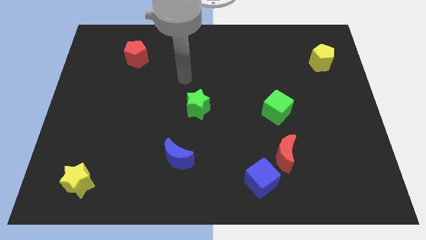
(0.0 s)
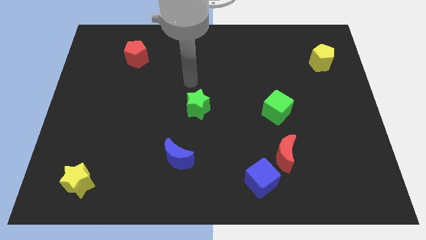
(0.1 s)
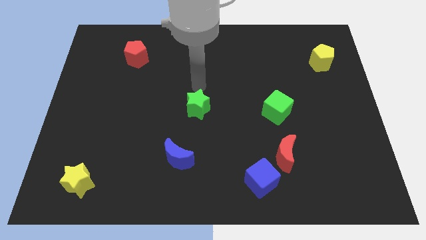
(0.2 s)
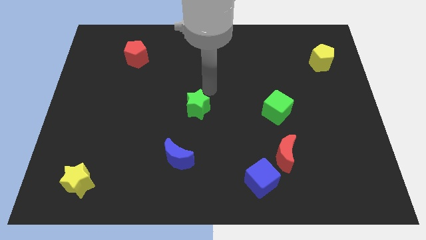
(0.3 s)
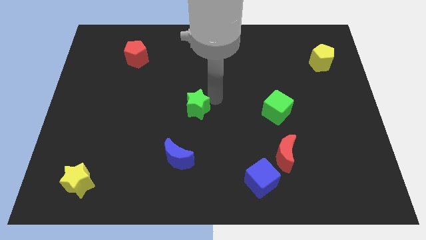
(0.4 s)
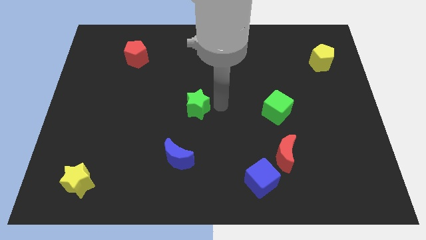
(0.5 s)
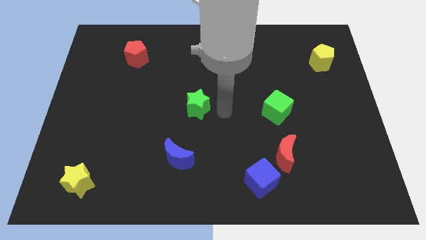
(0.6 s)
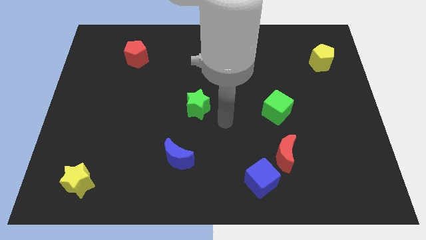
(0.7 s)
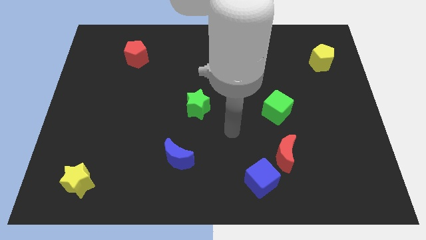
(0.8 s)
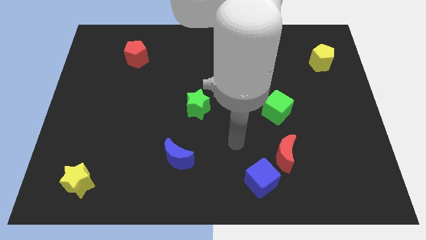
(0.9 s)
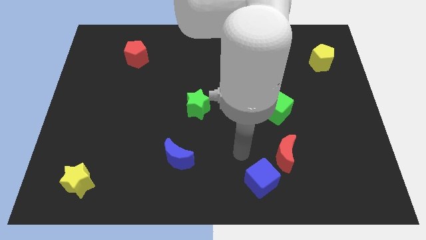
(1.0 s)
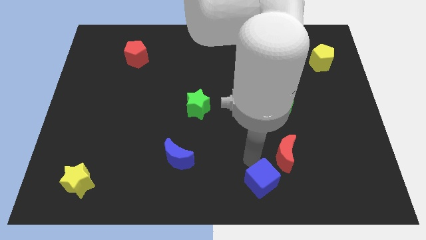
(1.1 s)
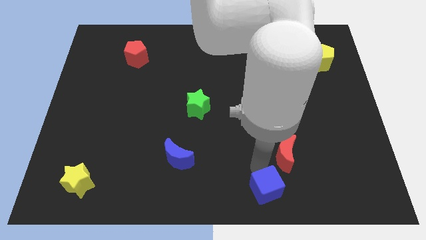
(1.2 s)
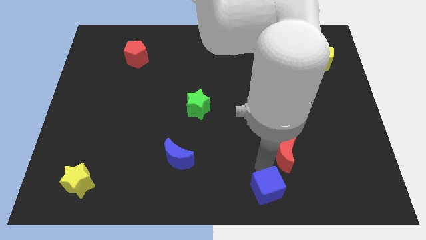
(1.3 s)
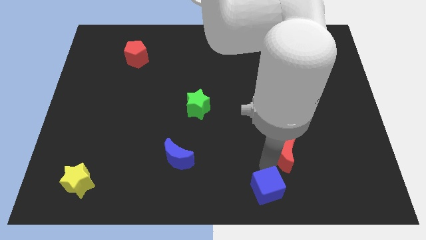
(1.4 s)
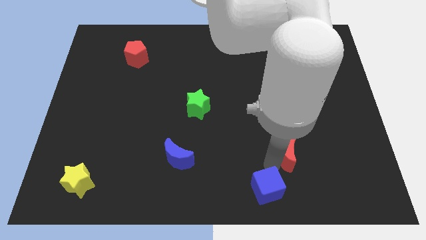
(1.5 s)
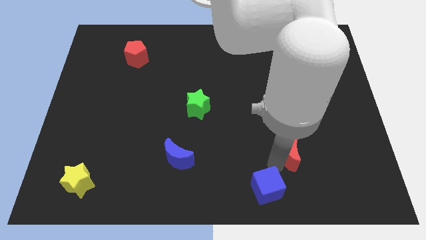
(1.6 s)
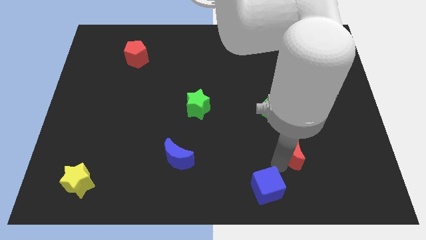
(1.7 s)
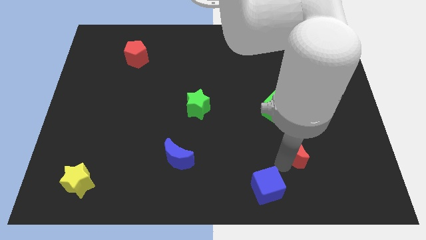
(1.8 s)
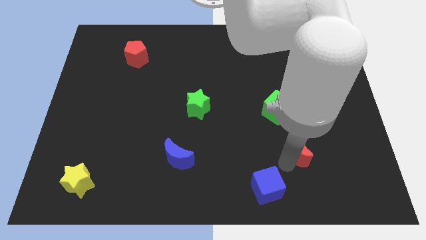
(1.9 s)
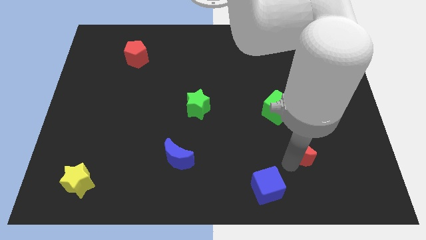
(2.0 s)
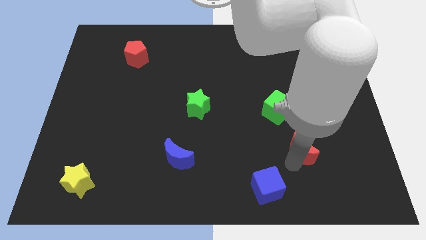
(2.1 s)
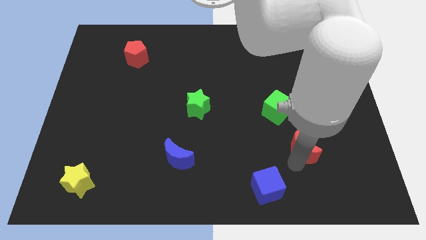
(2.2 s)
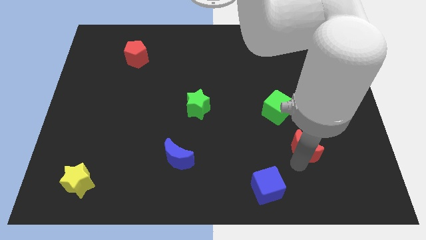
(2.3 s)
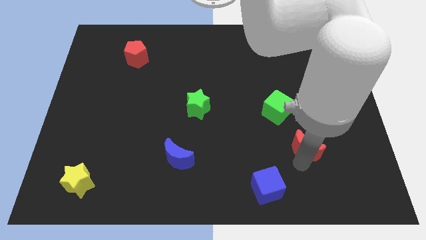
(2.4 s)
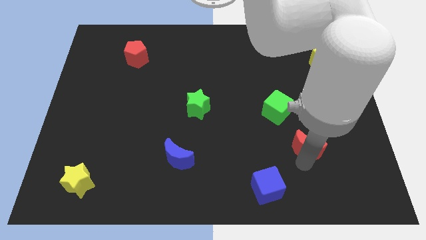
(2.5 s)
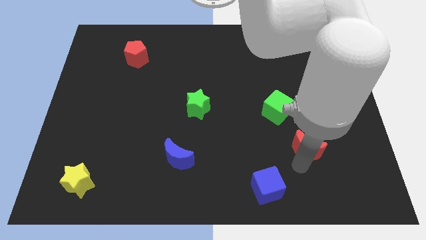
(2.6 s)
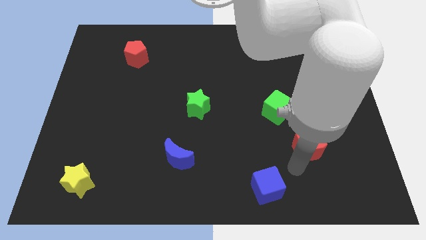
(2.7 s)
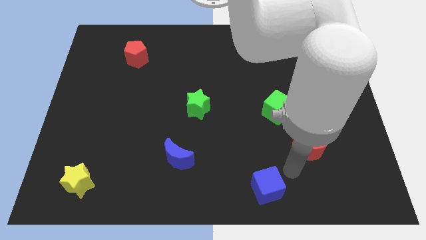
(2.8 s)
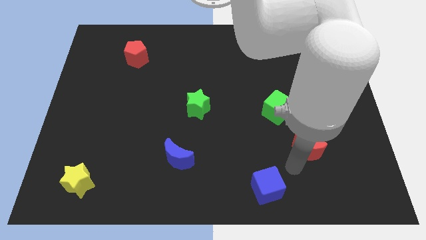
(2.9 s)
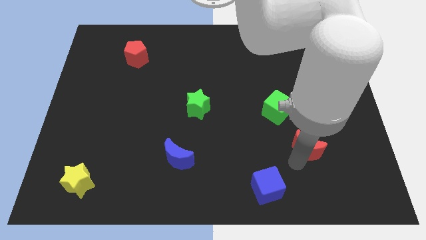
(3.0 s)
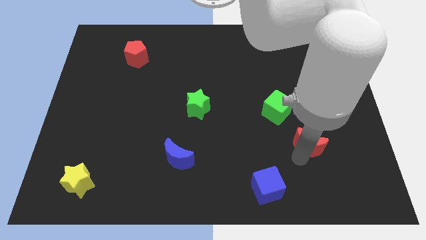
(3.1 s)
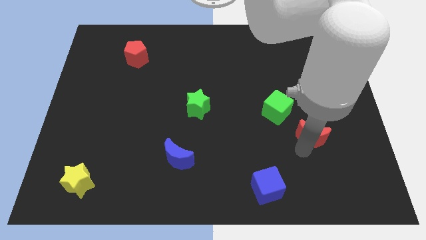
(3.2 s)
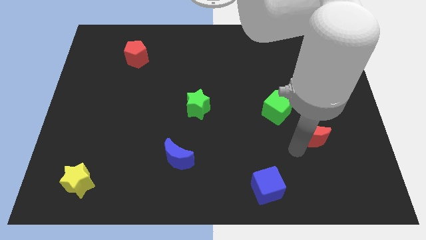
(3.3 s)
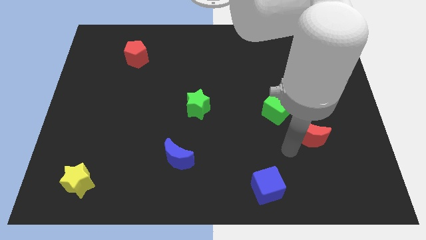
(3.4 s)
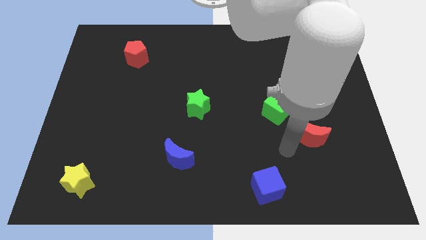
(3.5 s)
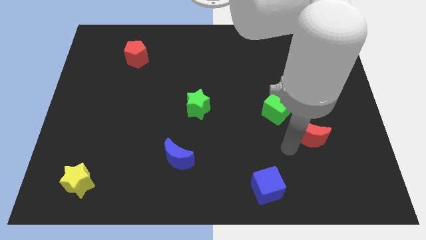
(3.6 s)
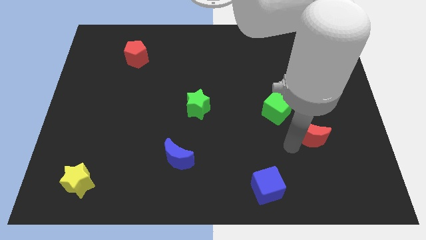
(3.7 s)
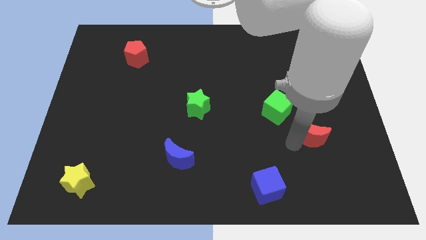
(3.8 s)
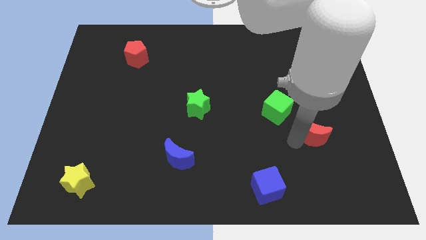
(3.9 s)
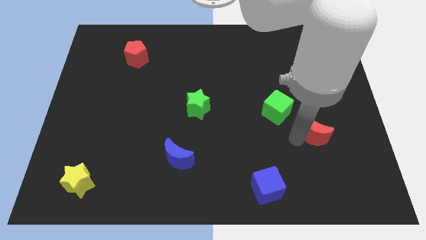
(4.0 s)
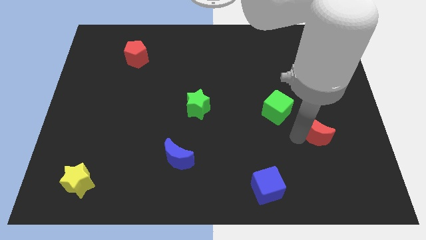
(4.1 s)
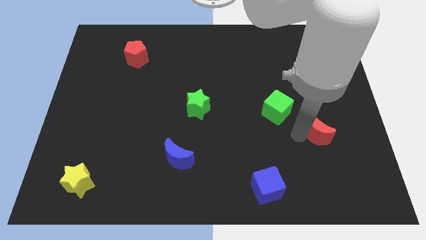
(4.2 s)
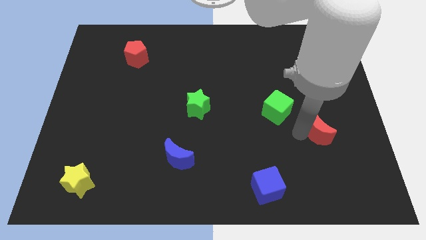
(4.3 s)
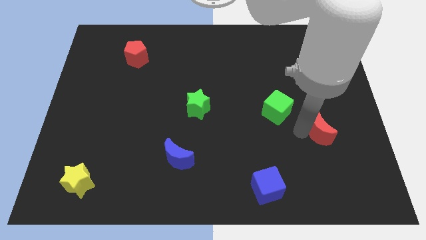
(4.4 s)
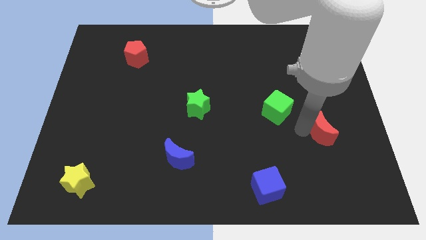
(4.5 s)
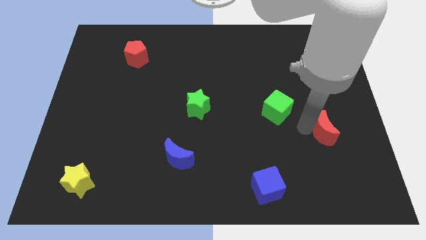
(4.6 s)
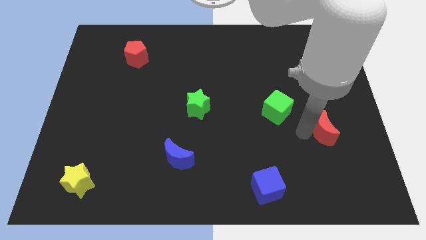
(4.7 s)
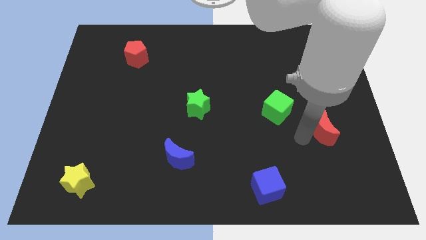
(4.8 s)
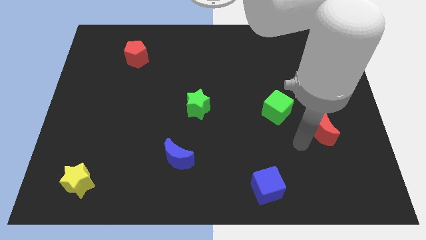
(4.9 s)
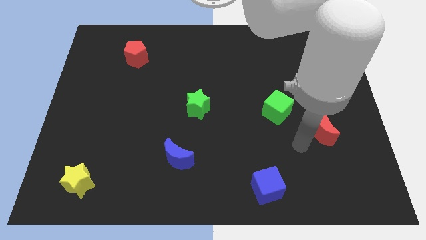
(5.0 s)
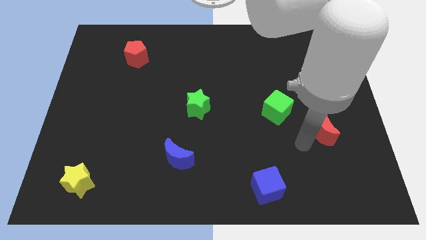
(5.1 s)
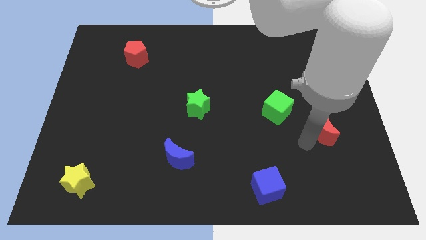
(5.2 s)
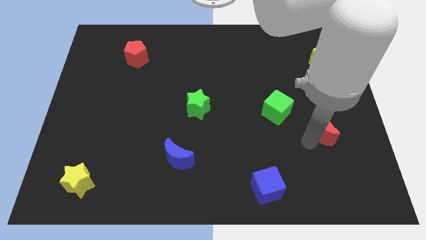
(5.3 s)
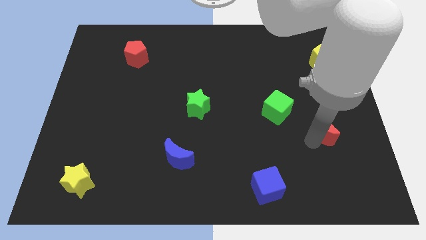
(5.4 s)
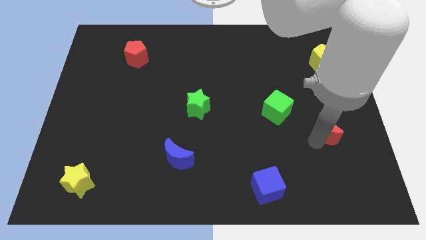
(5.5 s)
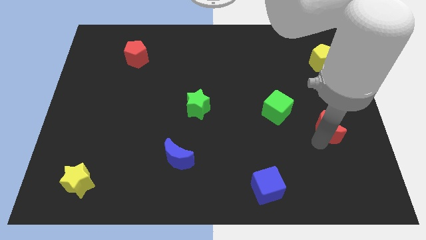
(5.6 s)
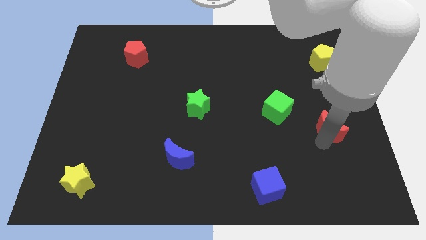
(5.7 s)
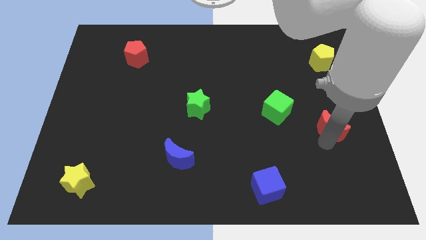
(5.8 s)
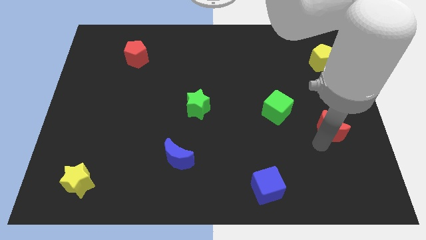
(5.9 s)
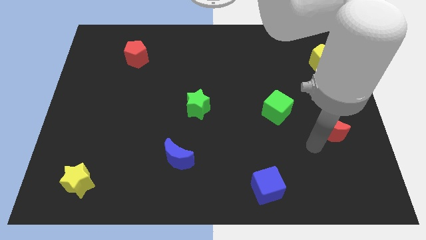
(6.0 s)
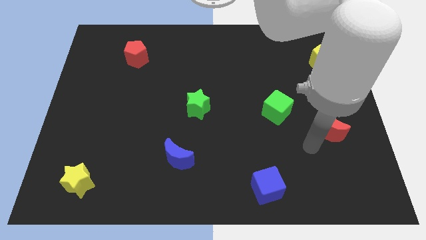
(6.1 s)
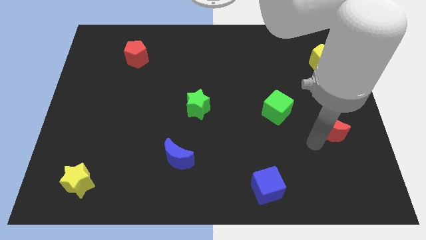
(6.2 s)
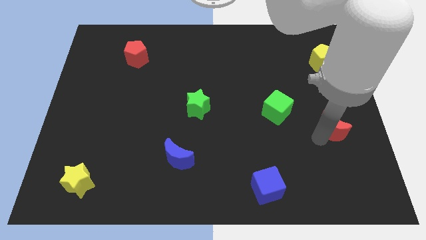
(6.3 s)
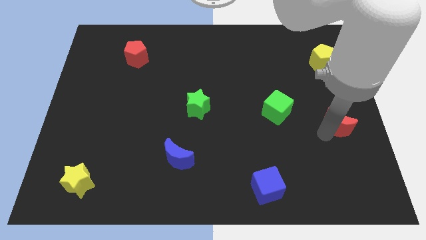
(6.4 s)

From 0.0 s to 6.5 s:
slide the red moon to the right side
